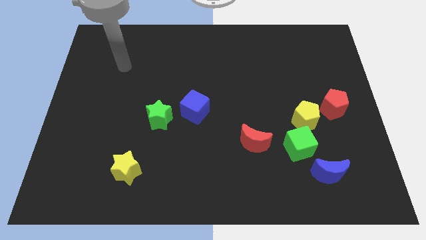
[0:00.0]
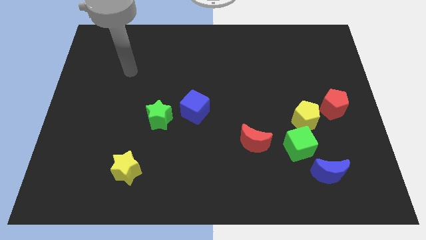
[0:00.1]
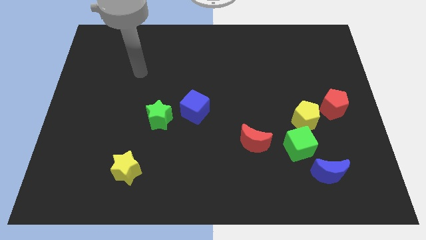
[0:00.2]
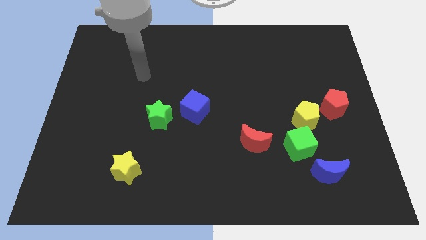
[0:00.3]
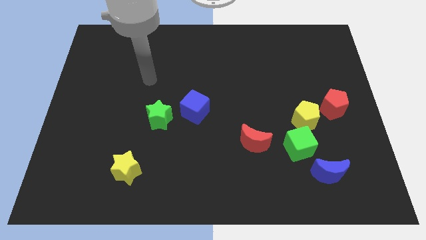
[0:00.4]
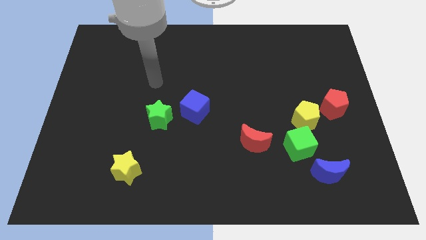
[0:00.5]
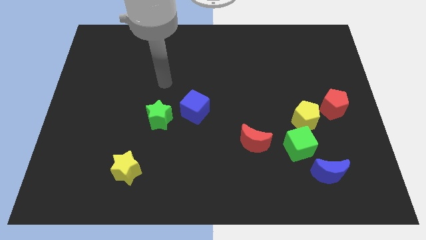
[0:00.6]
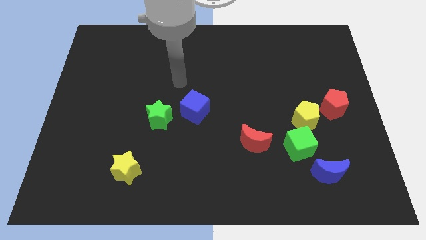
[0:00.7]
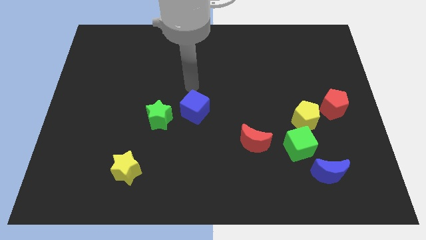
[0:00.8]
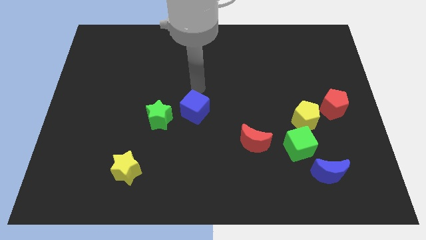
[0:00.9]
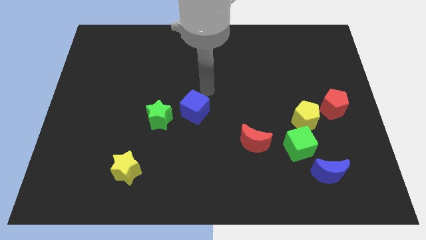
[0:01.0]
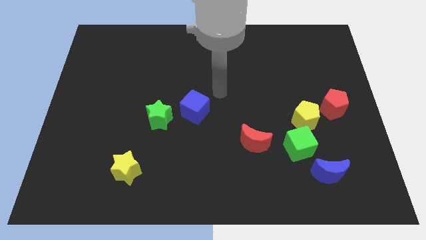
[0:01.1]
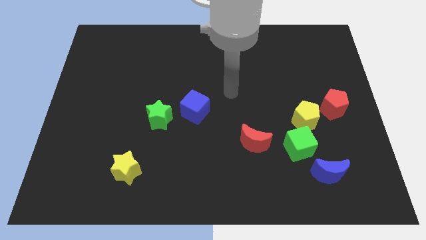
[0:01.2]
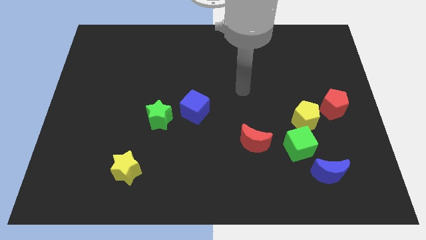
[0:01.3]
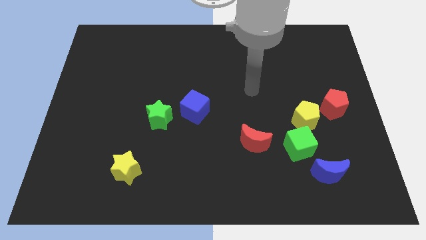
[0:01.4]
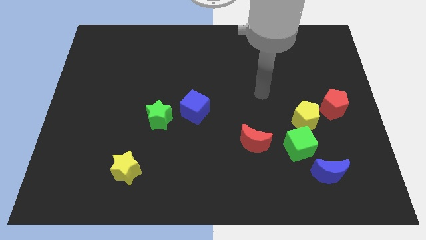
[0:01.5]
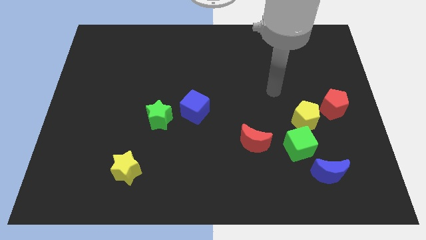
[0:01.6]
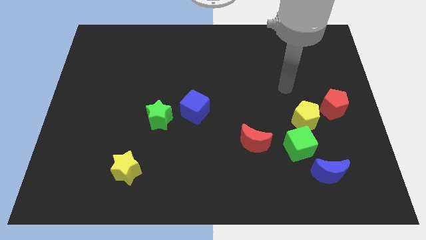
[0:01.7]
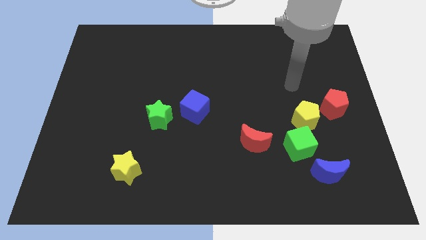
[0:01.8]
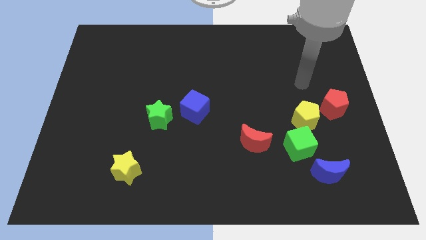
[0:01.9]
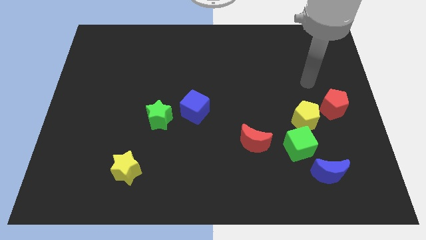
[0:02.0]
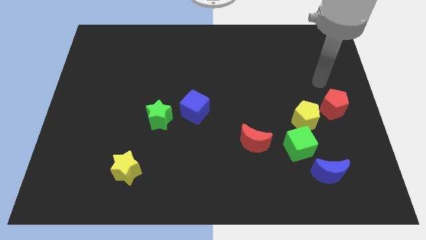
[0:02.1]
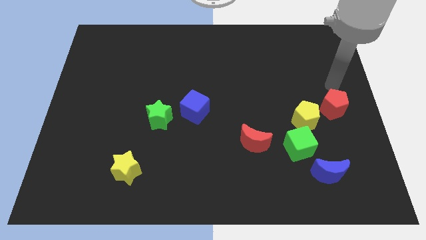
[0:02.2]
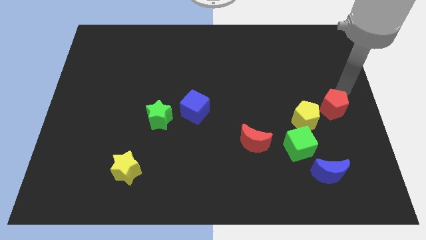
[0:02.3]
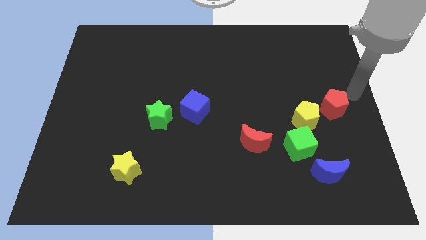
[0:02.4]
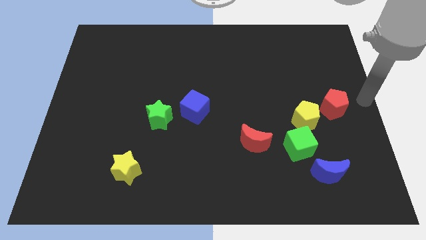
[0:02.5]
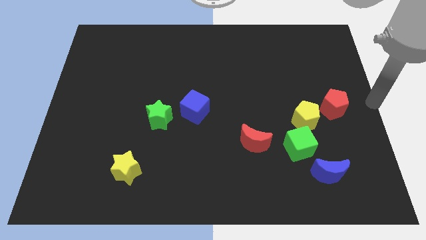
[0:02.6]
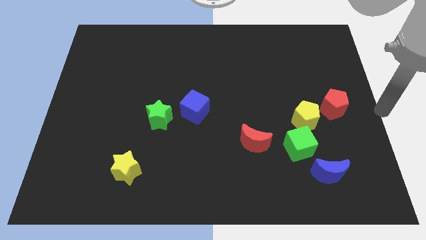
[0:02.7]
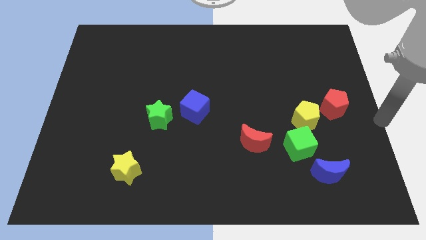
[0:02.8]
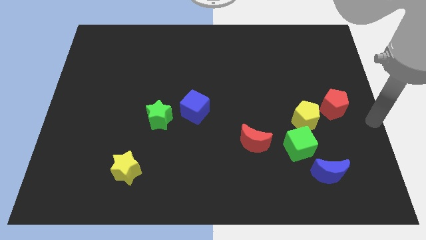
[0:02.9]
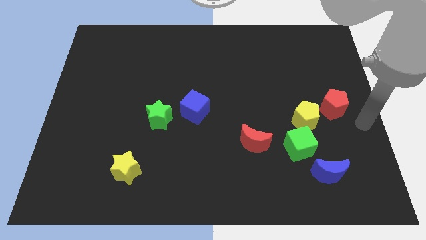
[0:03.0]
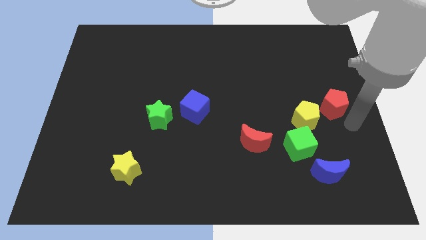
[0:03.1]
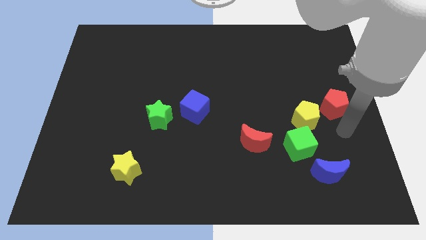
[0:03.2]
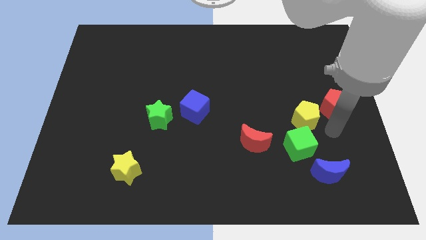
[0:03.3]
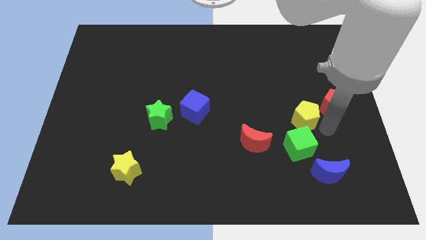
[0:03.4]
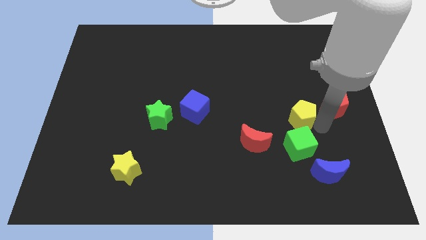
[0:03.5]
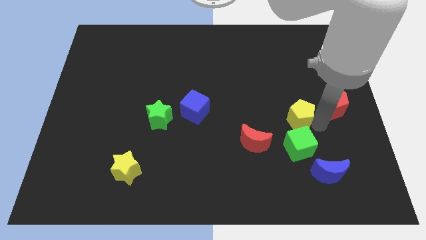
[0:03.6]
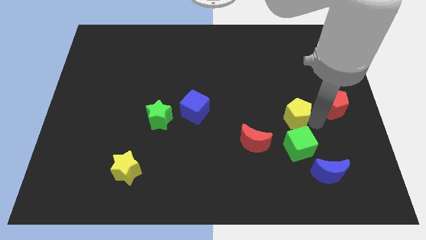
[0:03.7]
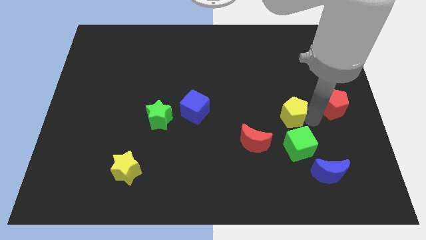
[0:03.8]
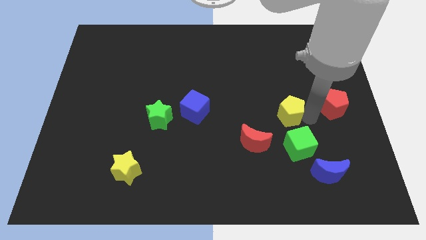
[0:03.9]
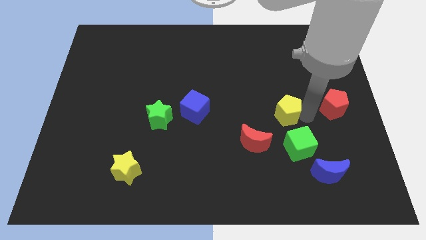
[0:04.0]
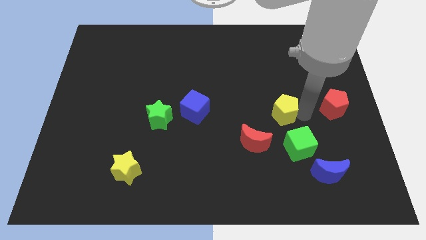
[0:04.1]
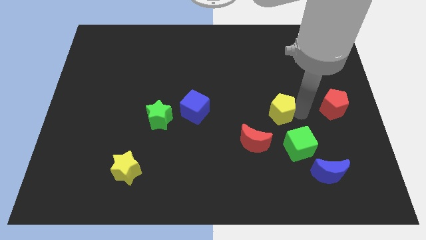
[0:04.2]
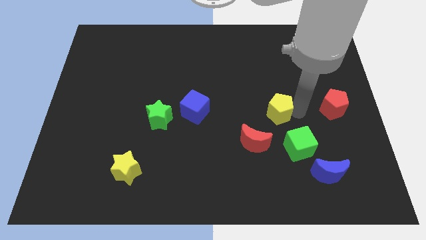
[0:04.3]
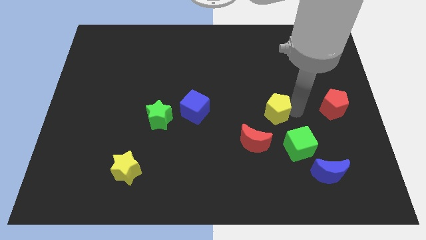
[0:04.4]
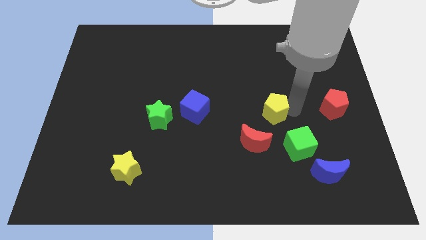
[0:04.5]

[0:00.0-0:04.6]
separate the yellow pentagon from the green cube and red pentagon

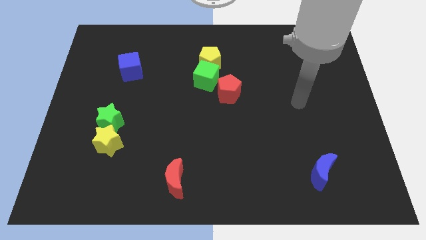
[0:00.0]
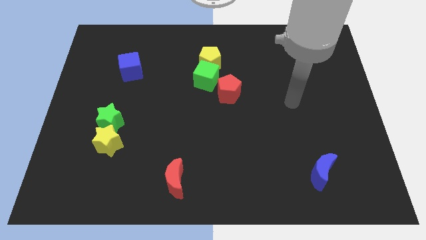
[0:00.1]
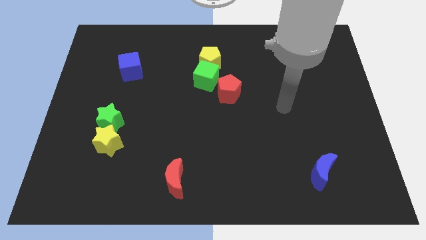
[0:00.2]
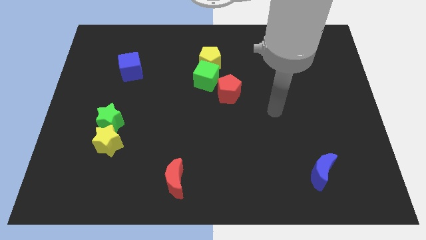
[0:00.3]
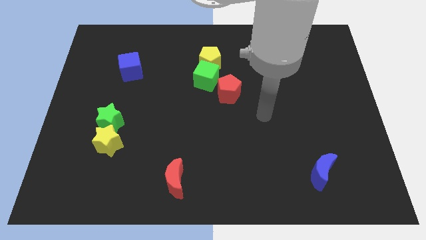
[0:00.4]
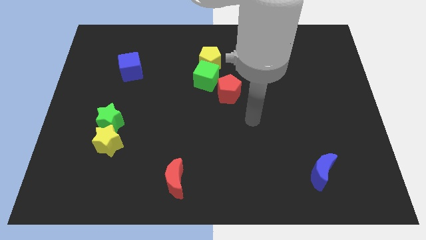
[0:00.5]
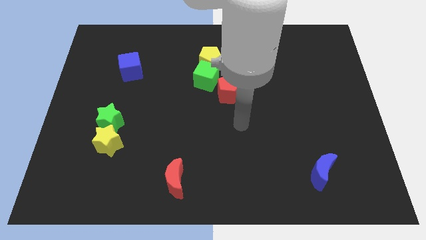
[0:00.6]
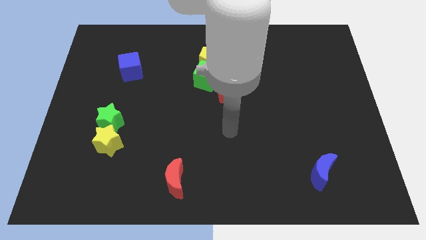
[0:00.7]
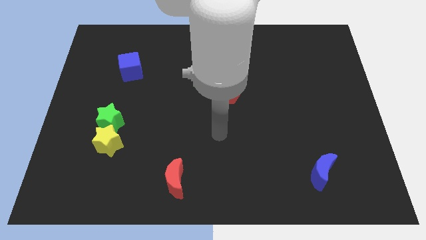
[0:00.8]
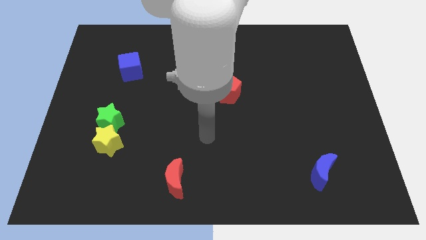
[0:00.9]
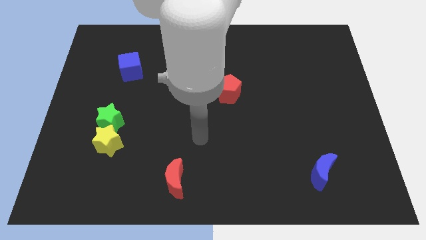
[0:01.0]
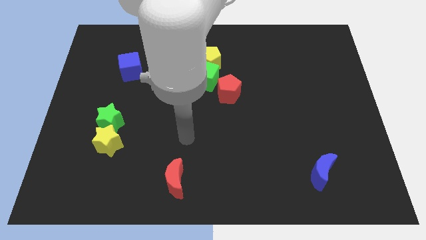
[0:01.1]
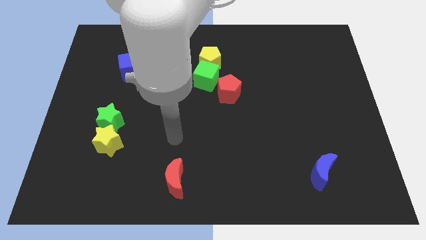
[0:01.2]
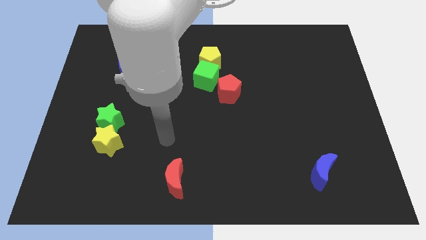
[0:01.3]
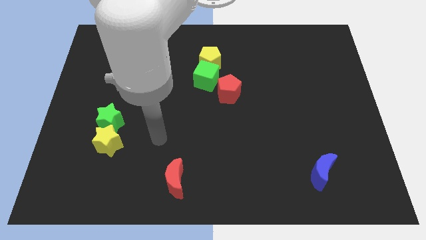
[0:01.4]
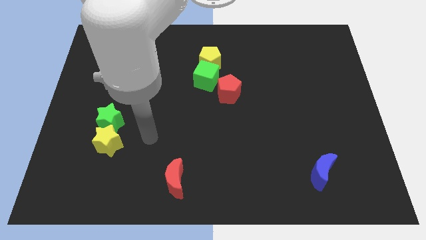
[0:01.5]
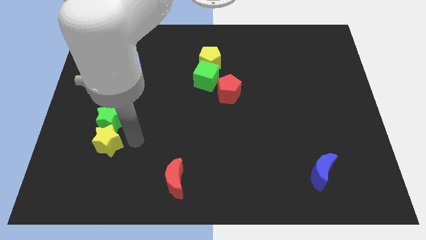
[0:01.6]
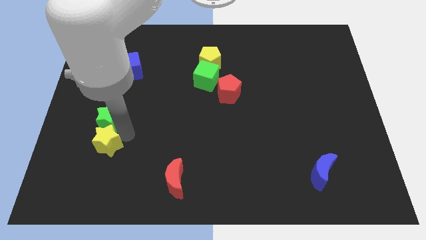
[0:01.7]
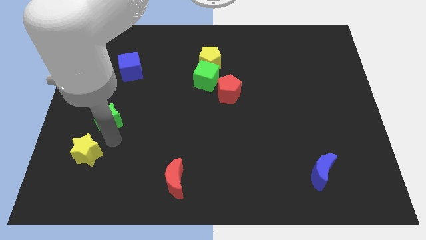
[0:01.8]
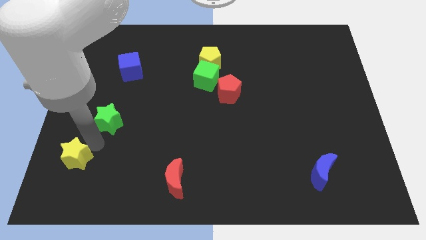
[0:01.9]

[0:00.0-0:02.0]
separate the green star from the yellow star

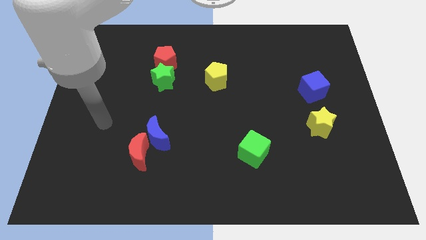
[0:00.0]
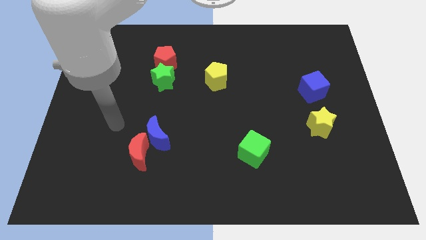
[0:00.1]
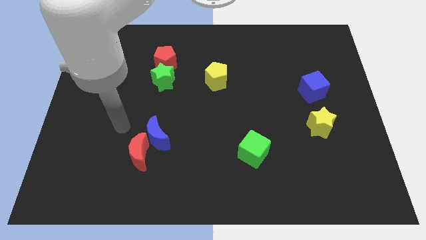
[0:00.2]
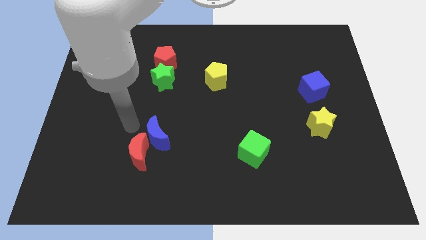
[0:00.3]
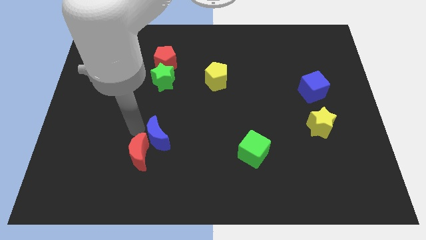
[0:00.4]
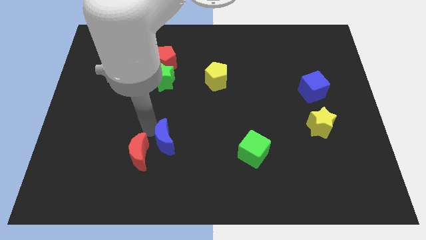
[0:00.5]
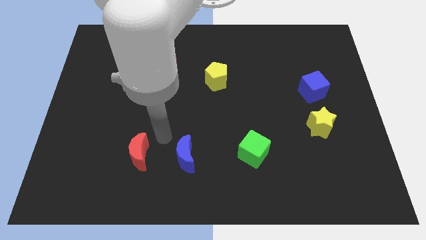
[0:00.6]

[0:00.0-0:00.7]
separate the red moon from the blue moon

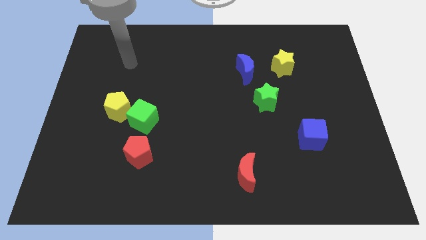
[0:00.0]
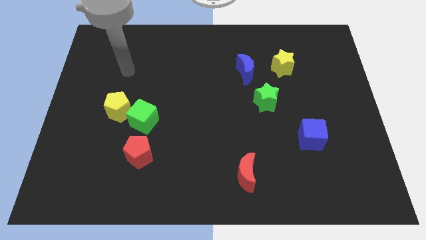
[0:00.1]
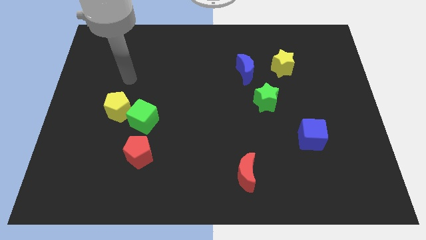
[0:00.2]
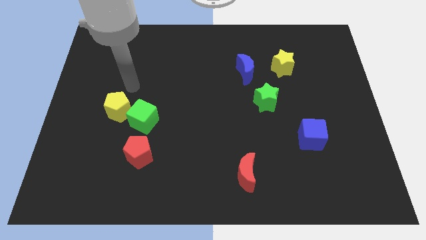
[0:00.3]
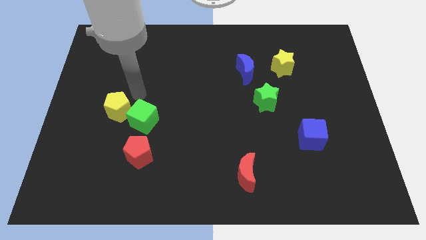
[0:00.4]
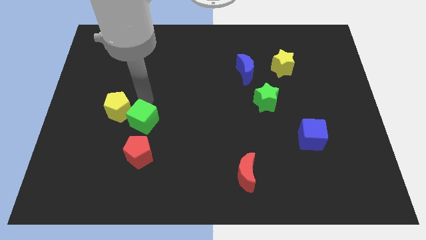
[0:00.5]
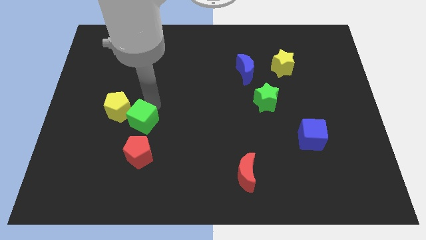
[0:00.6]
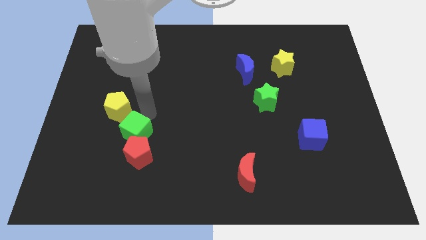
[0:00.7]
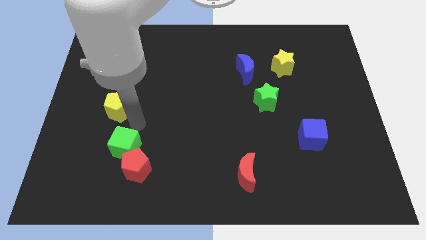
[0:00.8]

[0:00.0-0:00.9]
pull the yellow pentagon apart from the green cube

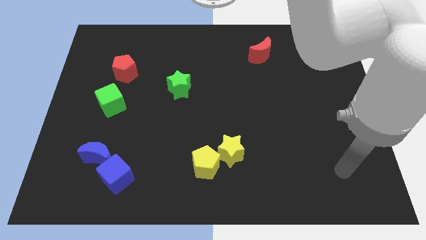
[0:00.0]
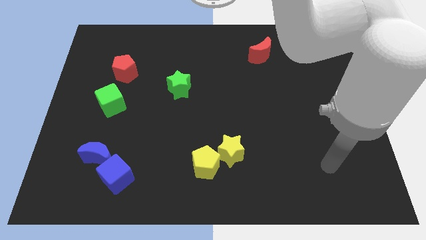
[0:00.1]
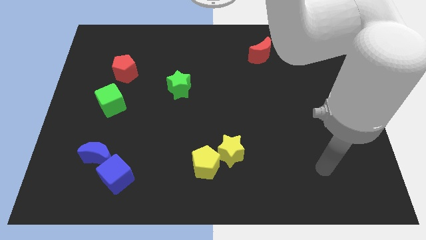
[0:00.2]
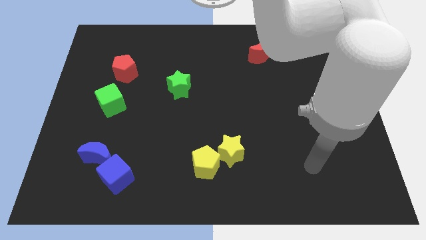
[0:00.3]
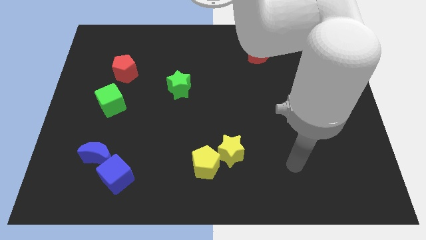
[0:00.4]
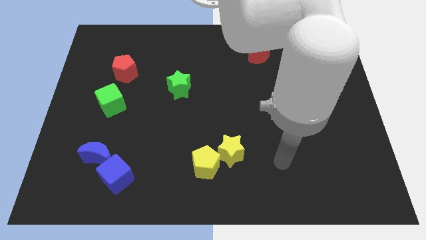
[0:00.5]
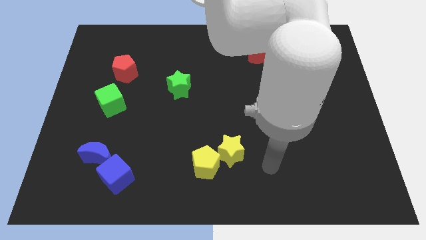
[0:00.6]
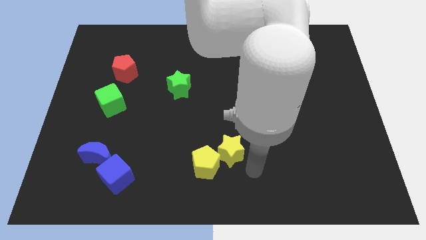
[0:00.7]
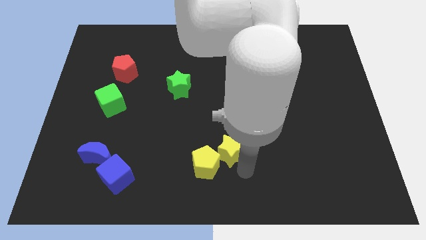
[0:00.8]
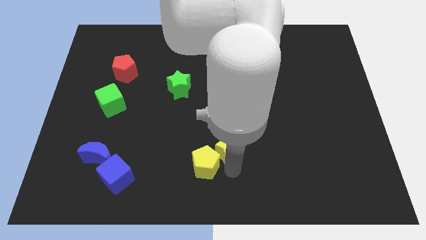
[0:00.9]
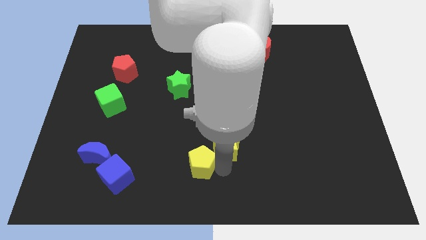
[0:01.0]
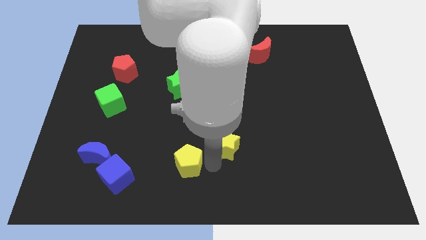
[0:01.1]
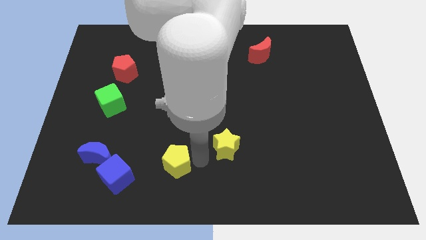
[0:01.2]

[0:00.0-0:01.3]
pull the yellow star apart from the yellow pentagon
